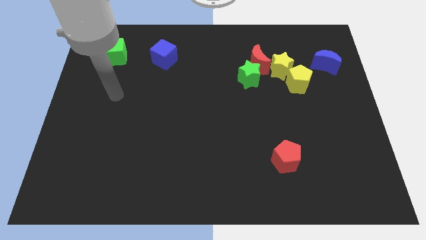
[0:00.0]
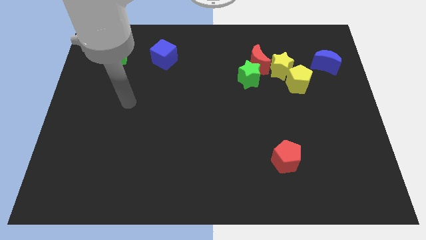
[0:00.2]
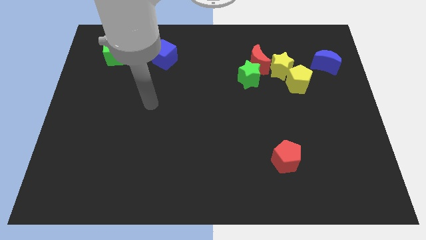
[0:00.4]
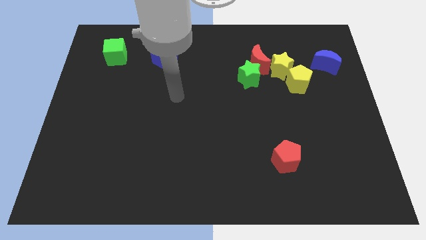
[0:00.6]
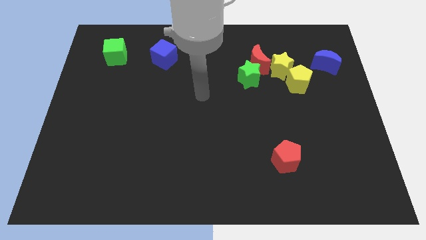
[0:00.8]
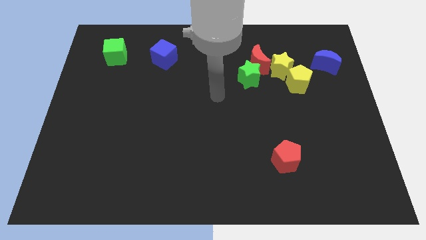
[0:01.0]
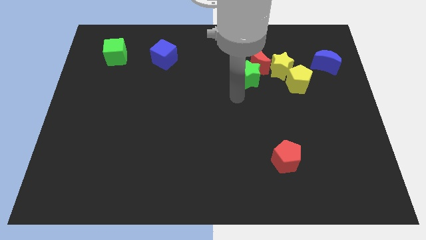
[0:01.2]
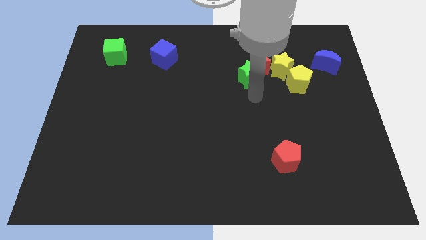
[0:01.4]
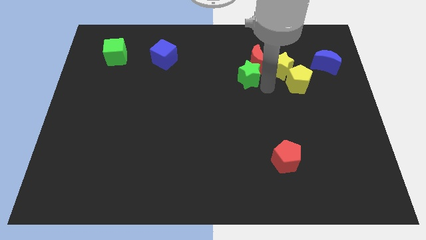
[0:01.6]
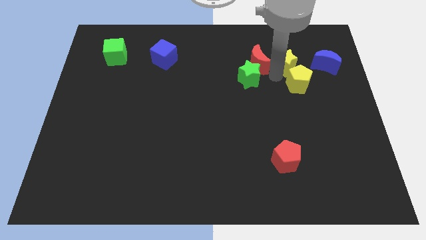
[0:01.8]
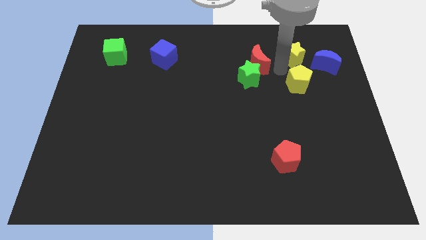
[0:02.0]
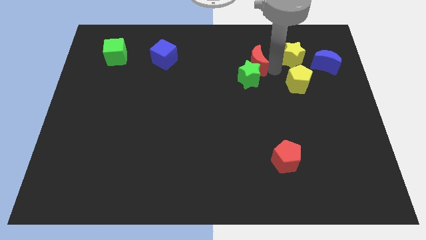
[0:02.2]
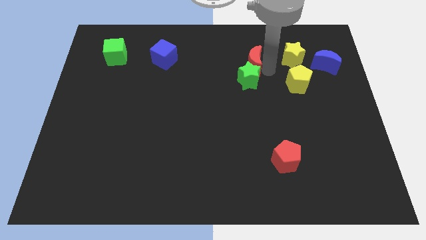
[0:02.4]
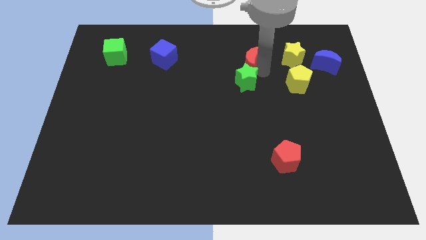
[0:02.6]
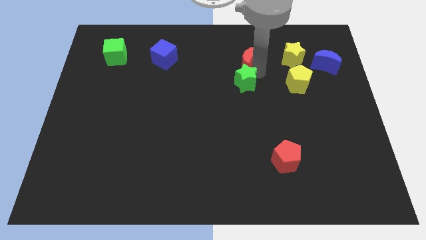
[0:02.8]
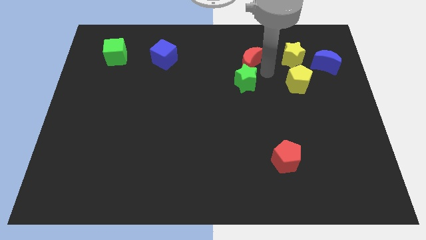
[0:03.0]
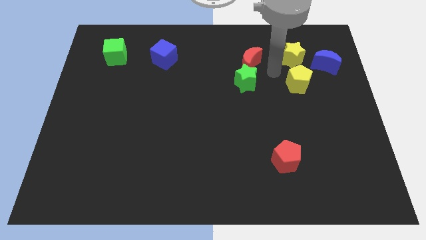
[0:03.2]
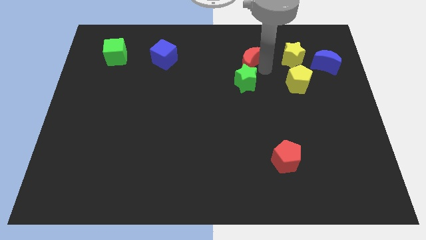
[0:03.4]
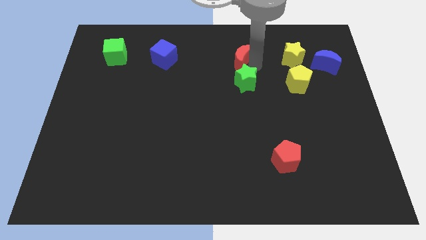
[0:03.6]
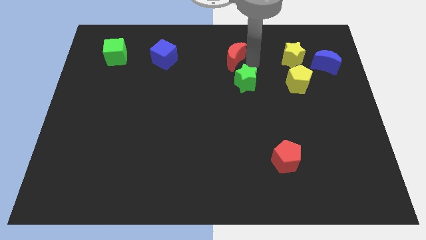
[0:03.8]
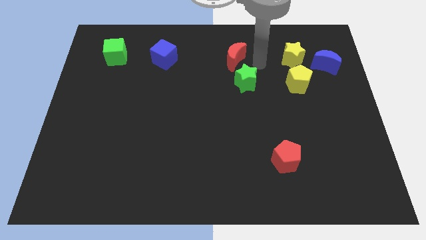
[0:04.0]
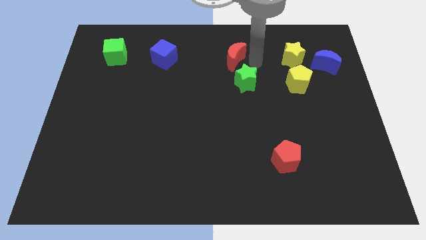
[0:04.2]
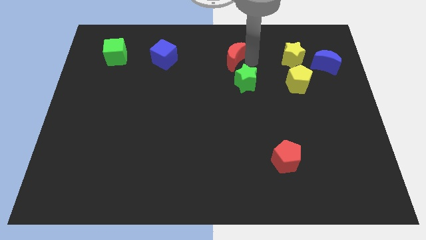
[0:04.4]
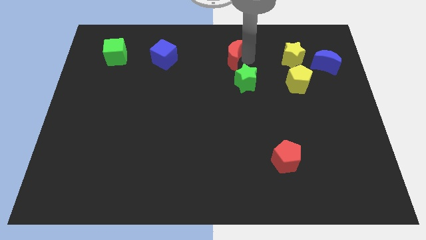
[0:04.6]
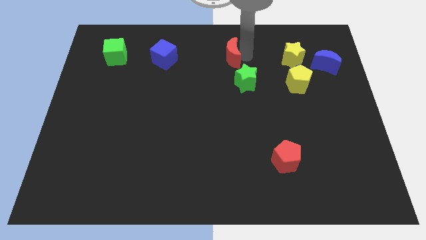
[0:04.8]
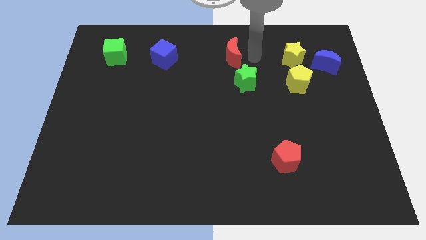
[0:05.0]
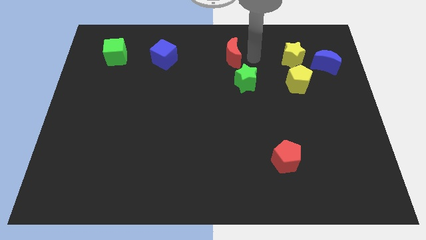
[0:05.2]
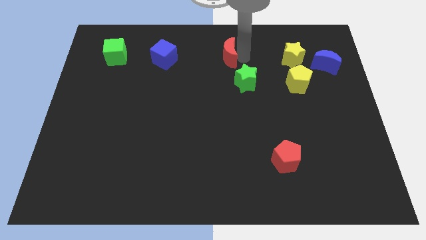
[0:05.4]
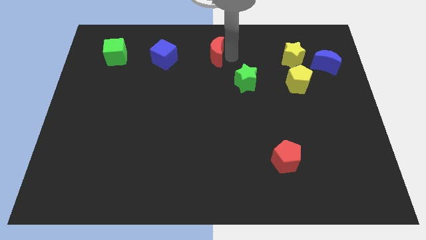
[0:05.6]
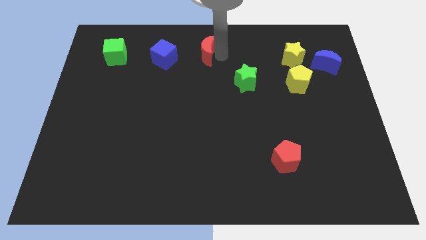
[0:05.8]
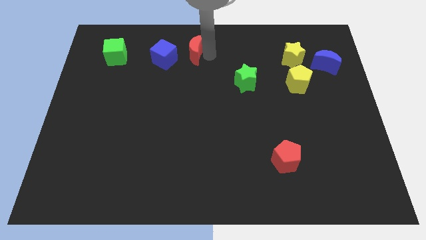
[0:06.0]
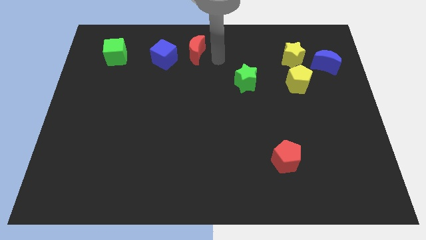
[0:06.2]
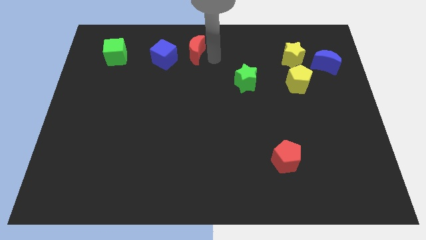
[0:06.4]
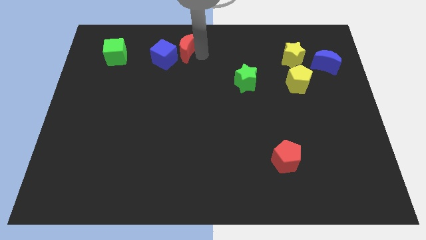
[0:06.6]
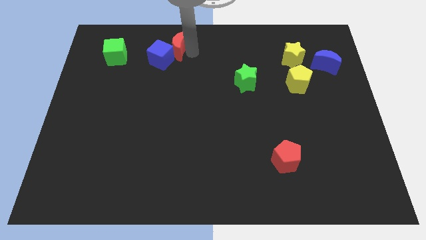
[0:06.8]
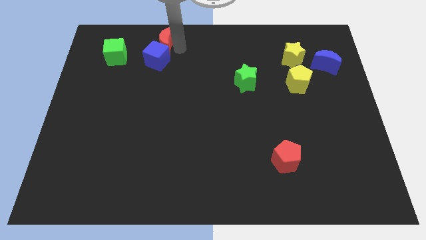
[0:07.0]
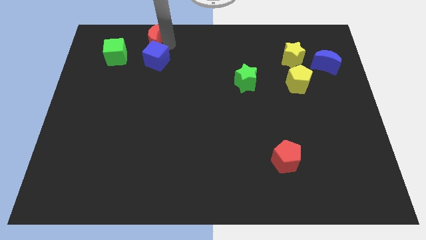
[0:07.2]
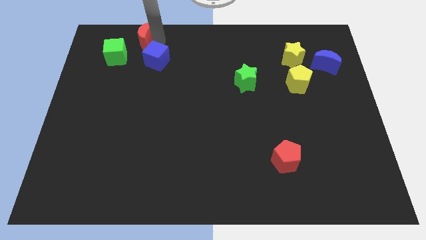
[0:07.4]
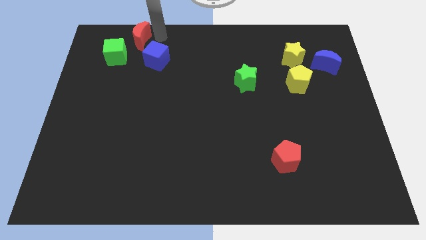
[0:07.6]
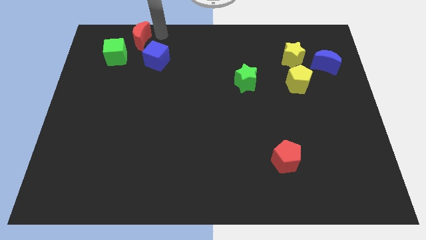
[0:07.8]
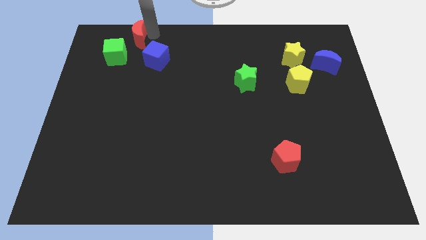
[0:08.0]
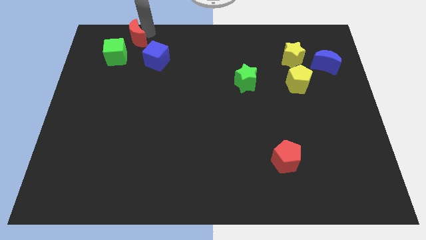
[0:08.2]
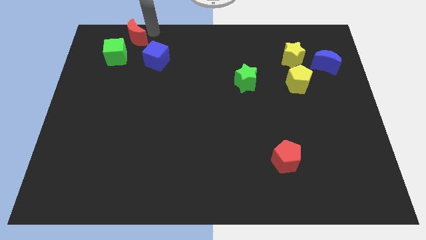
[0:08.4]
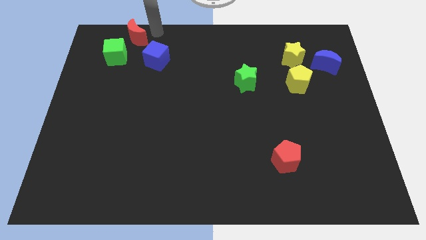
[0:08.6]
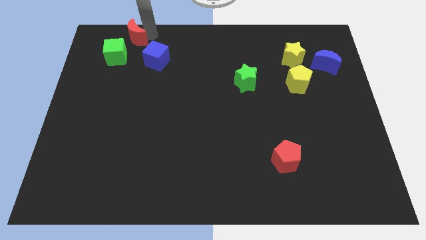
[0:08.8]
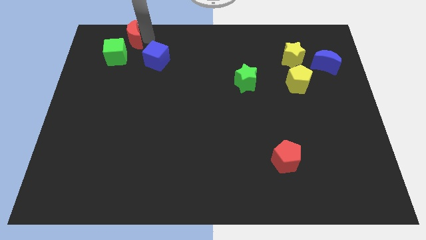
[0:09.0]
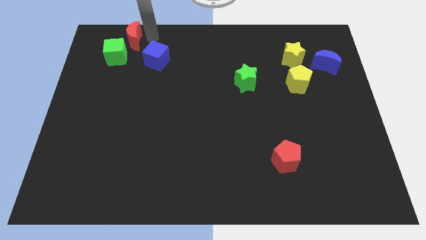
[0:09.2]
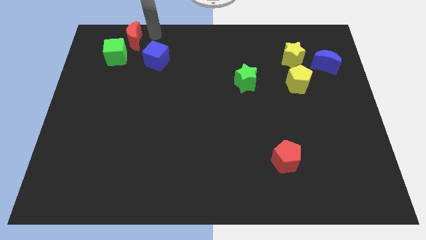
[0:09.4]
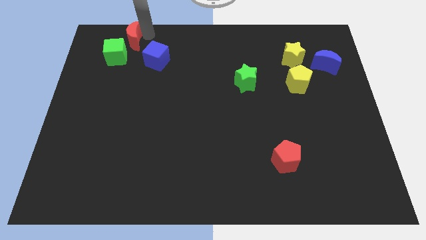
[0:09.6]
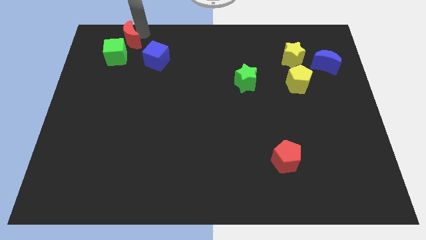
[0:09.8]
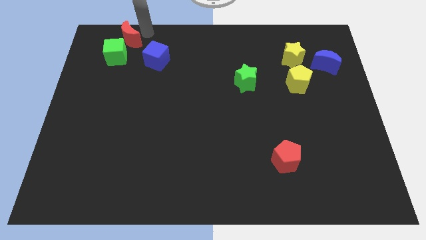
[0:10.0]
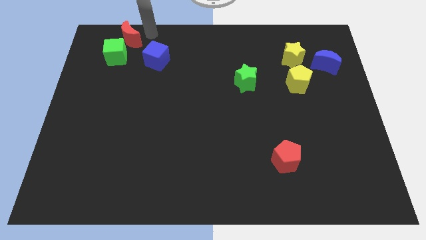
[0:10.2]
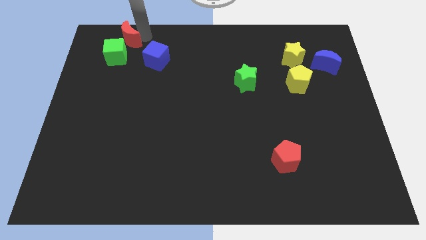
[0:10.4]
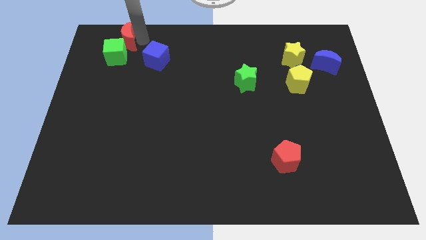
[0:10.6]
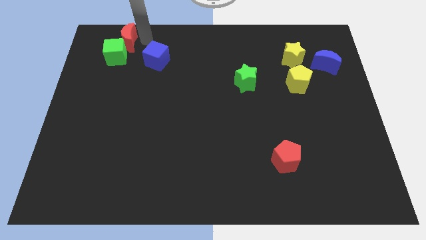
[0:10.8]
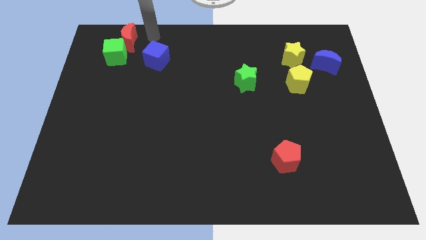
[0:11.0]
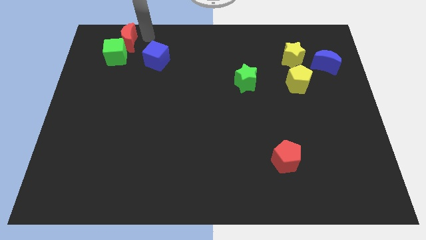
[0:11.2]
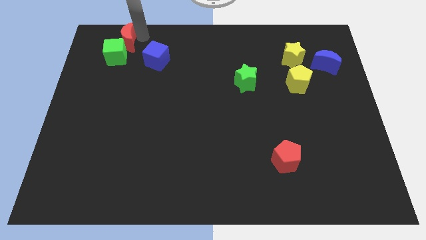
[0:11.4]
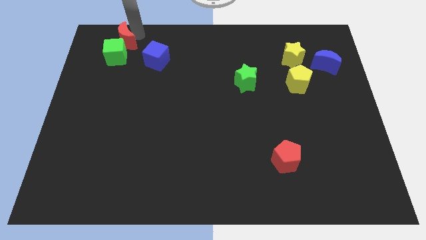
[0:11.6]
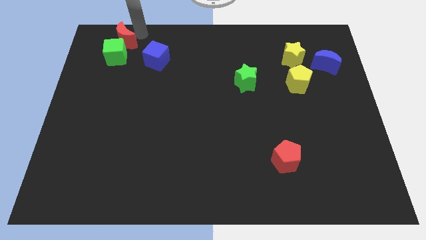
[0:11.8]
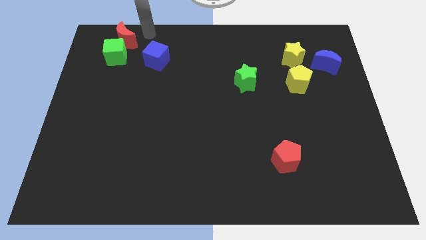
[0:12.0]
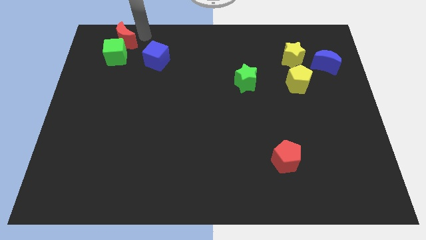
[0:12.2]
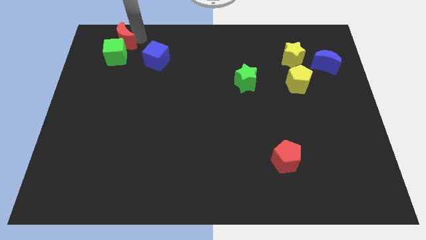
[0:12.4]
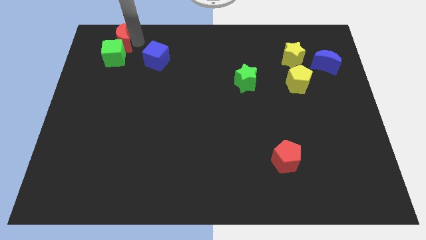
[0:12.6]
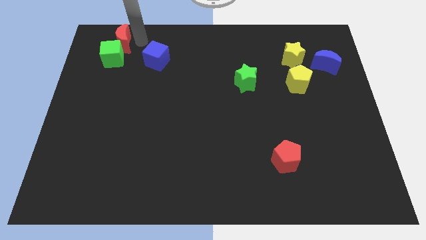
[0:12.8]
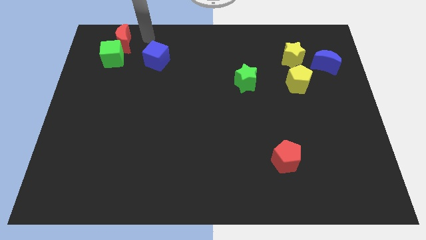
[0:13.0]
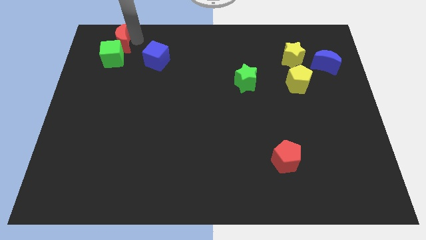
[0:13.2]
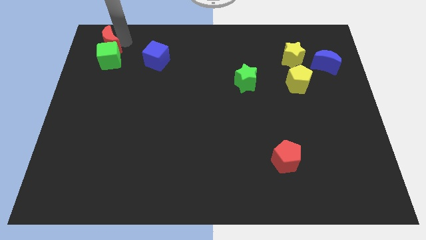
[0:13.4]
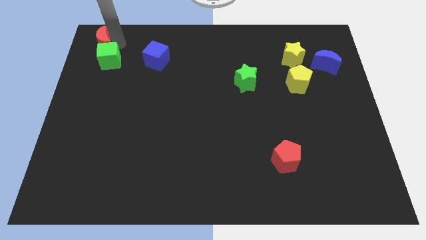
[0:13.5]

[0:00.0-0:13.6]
put the red moon to the upper left corner
